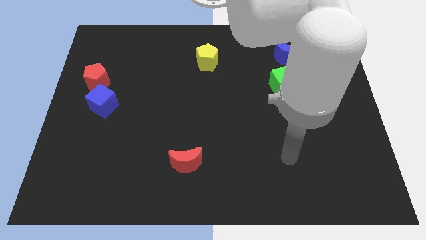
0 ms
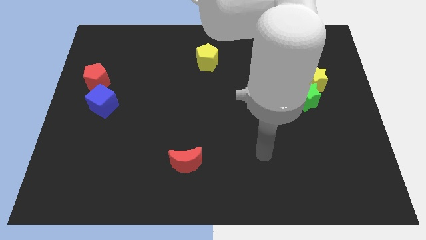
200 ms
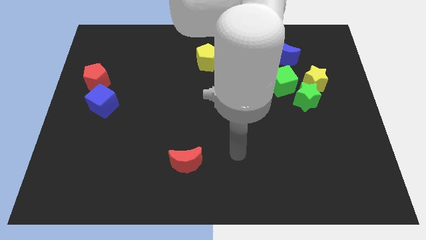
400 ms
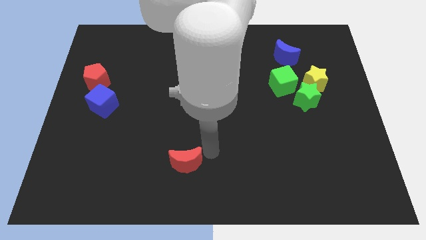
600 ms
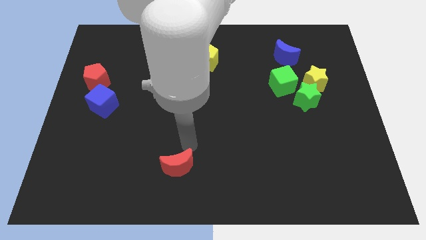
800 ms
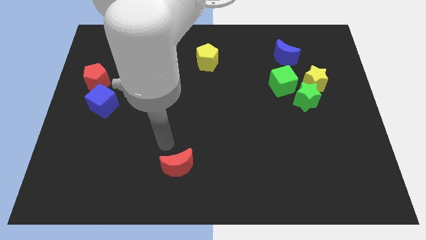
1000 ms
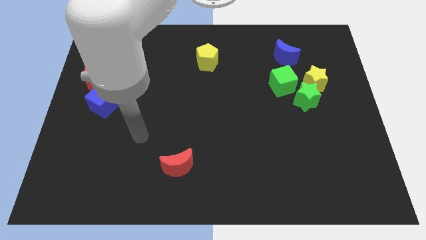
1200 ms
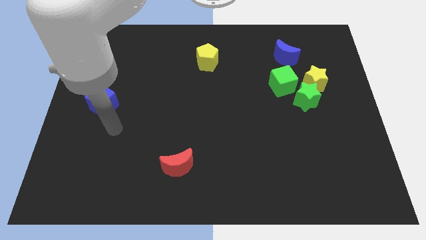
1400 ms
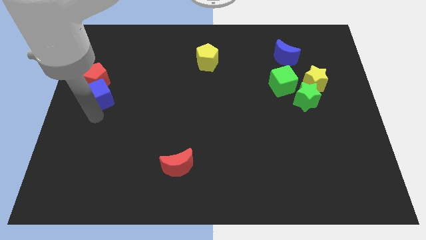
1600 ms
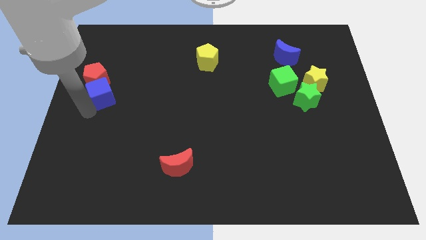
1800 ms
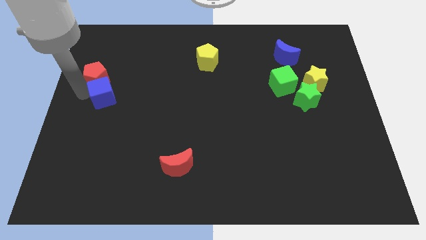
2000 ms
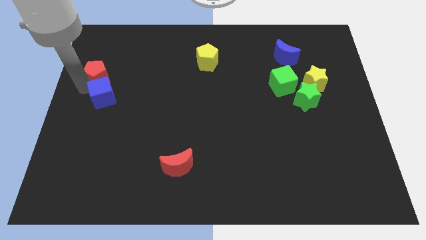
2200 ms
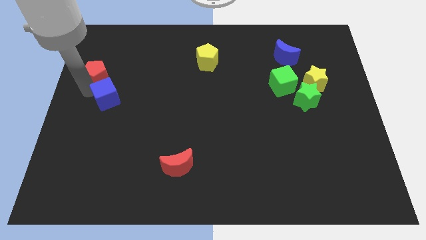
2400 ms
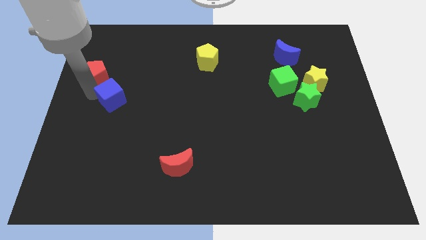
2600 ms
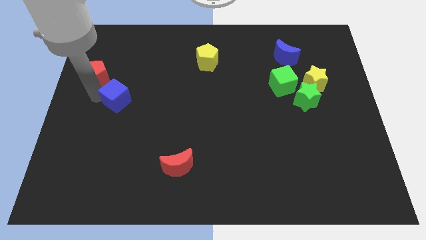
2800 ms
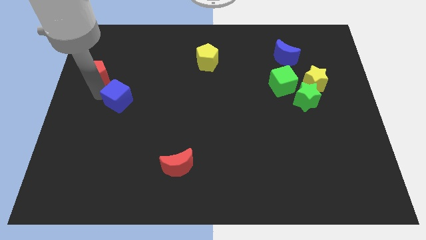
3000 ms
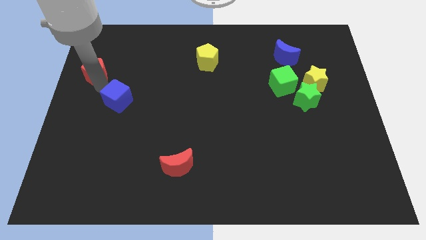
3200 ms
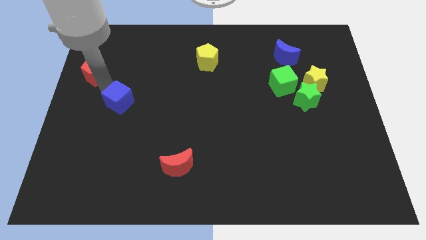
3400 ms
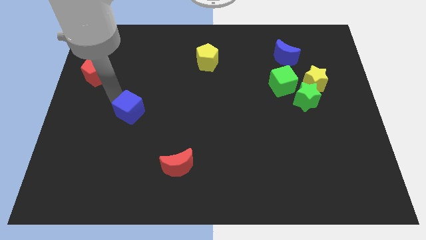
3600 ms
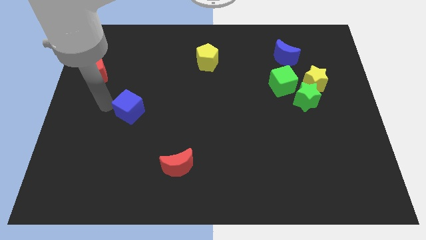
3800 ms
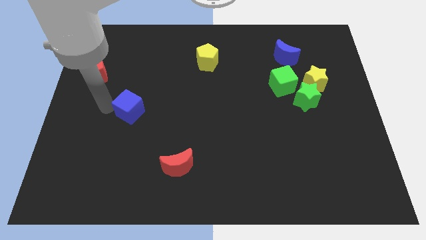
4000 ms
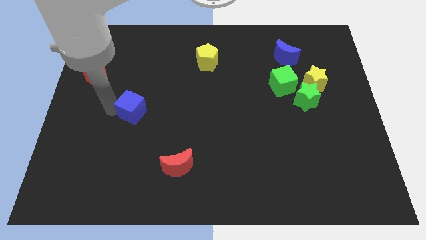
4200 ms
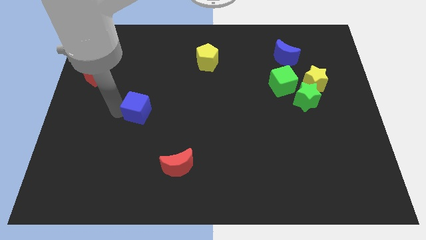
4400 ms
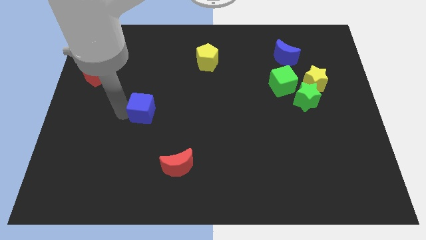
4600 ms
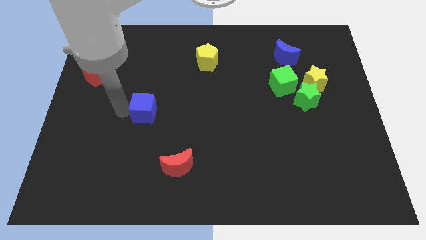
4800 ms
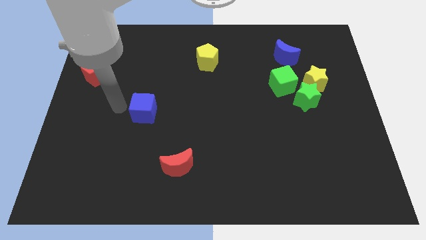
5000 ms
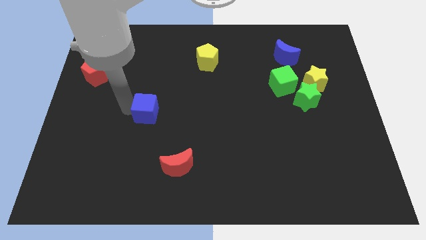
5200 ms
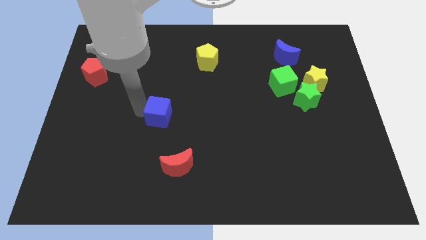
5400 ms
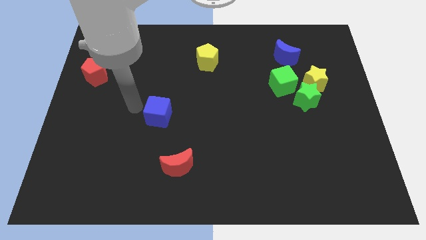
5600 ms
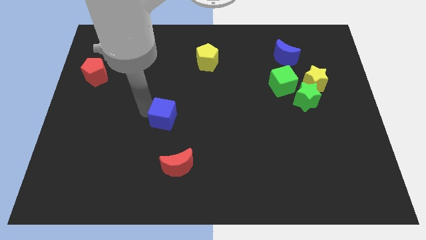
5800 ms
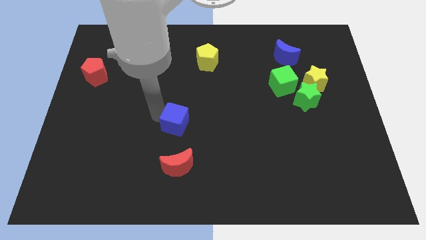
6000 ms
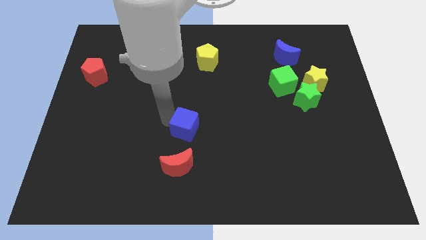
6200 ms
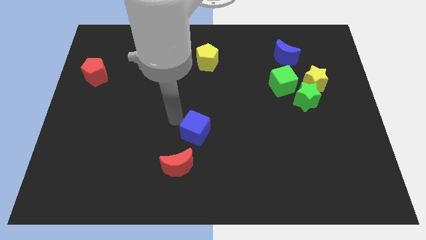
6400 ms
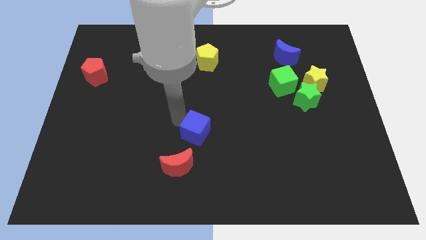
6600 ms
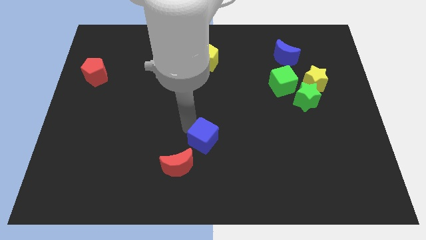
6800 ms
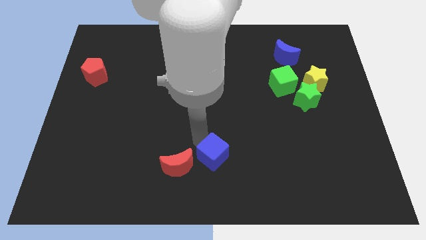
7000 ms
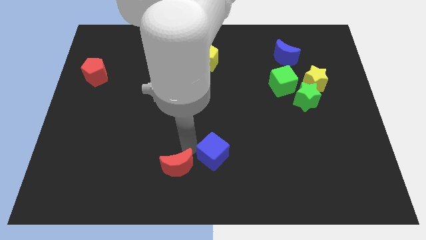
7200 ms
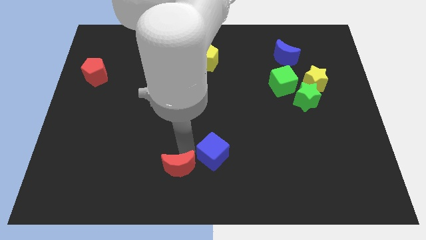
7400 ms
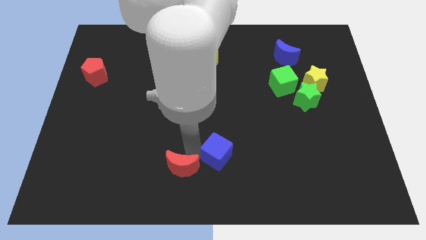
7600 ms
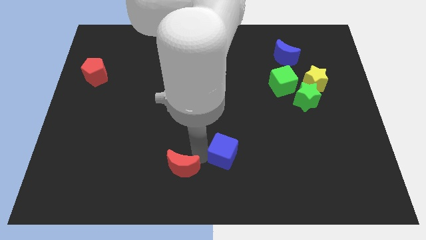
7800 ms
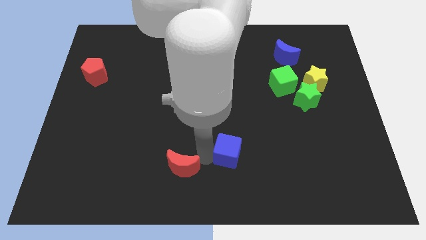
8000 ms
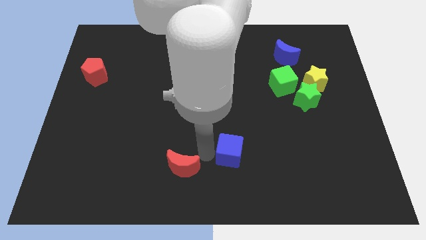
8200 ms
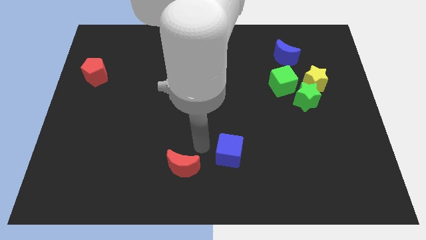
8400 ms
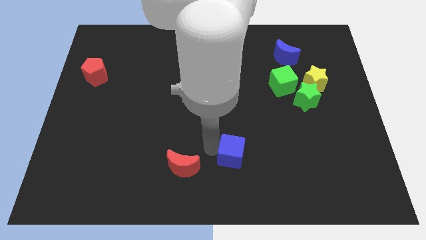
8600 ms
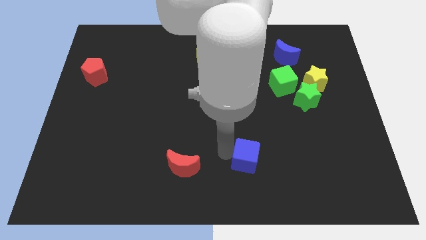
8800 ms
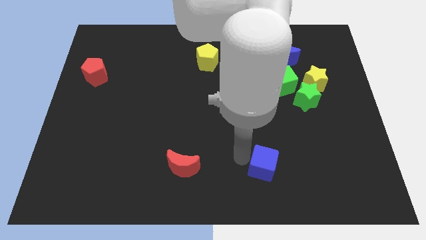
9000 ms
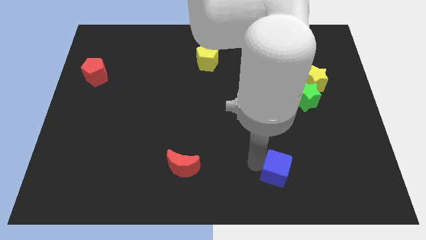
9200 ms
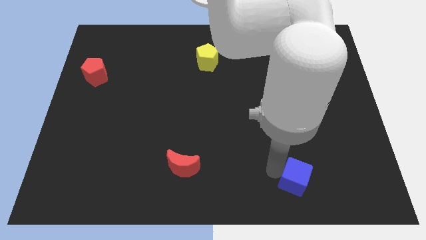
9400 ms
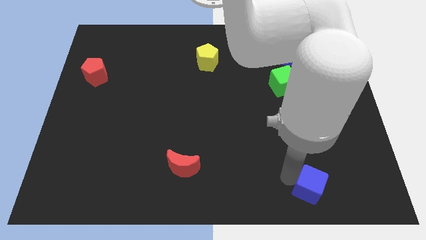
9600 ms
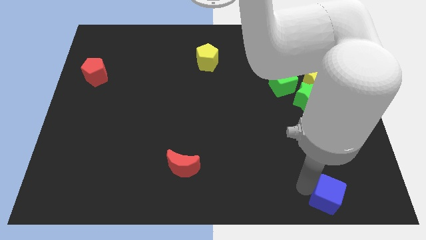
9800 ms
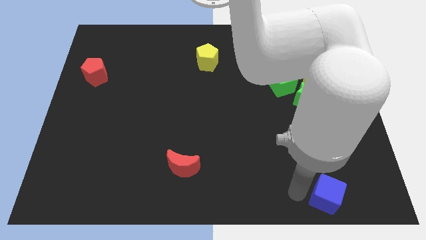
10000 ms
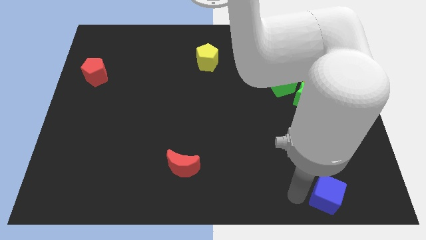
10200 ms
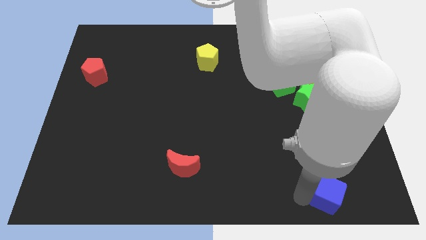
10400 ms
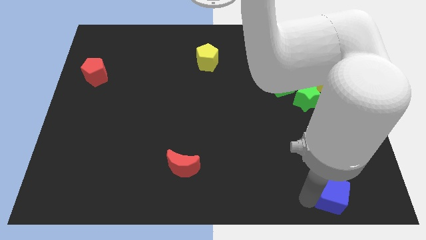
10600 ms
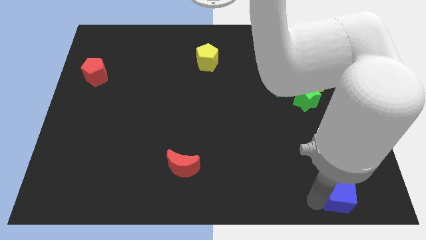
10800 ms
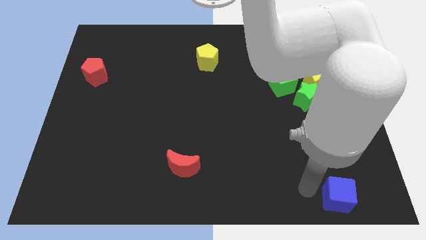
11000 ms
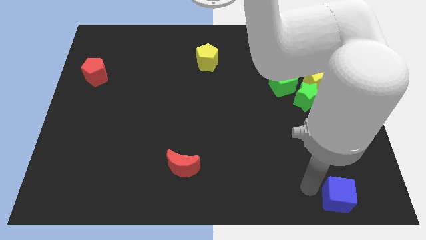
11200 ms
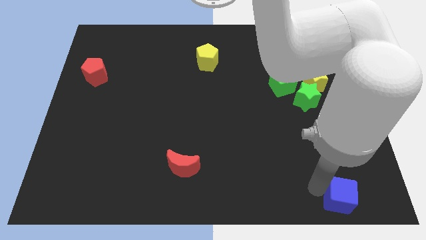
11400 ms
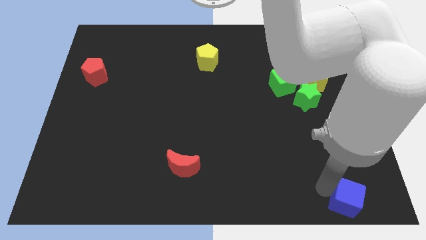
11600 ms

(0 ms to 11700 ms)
push the blue cube to the bottom right of the board

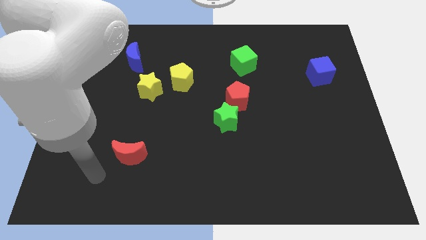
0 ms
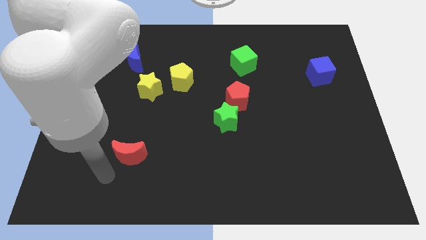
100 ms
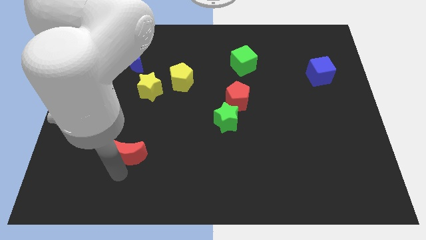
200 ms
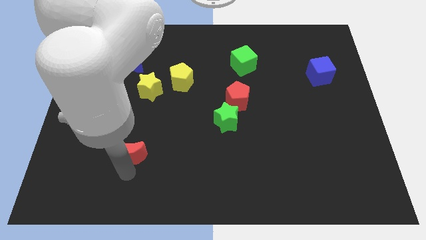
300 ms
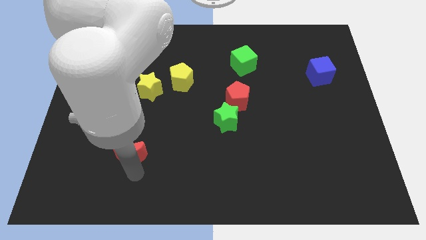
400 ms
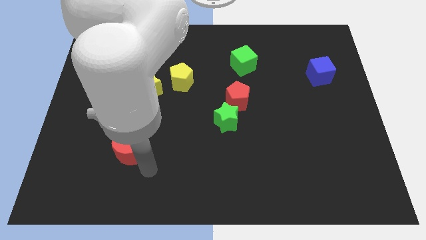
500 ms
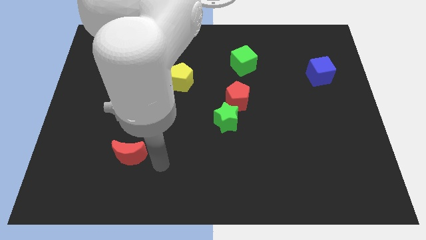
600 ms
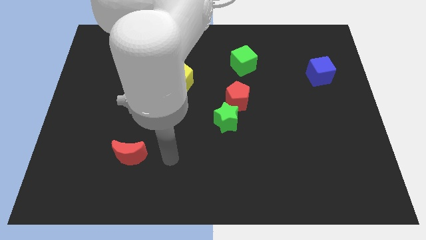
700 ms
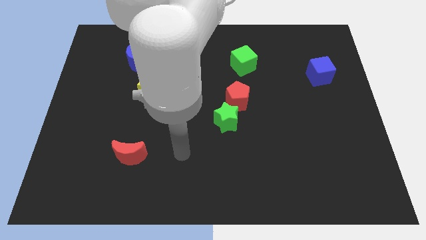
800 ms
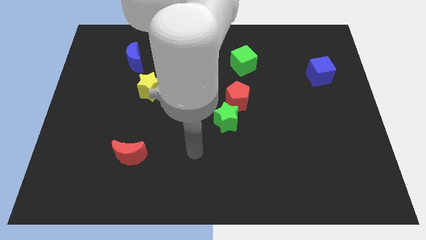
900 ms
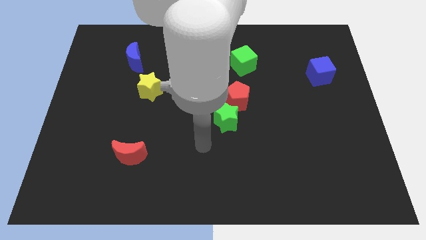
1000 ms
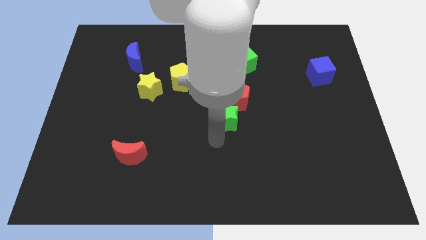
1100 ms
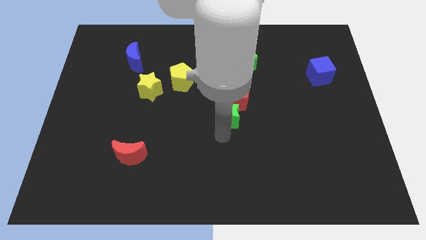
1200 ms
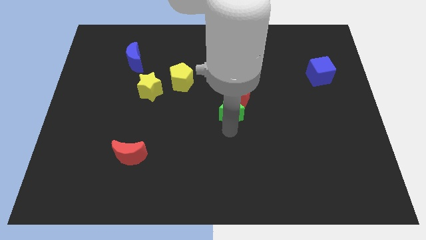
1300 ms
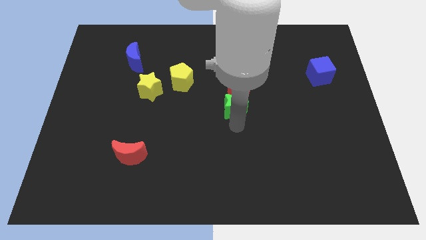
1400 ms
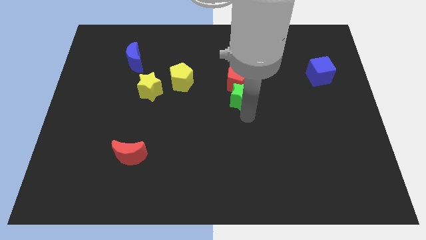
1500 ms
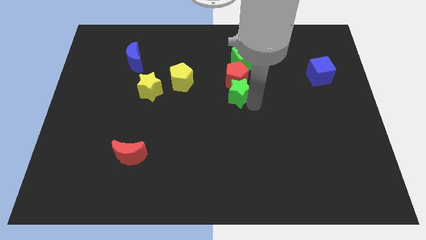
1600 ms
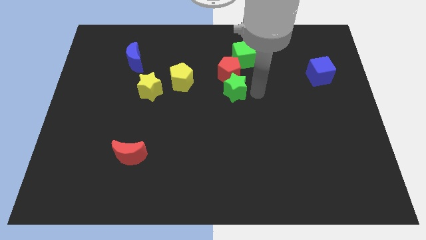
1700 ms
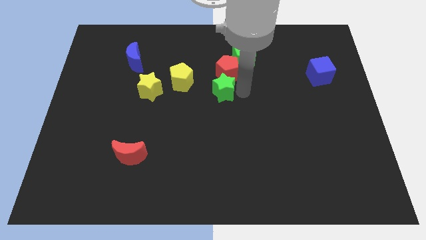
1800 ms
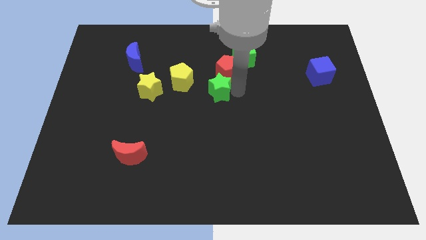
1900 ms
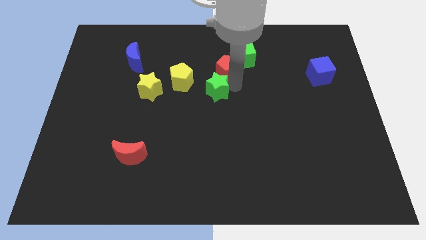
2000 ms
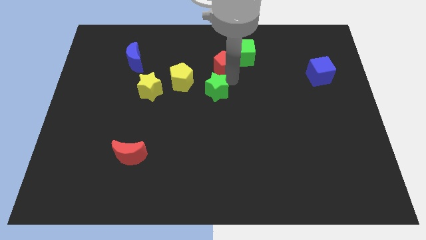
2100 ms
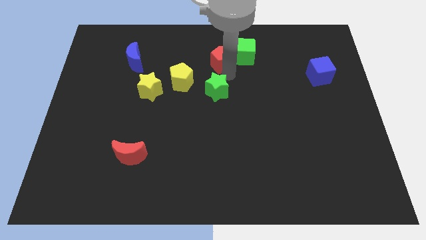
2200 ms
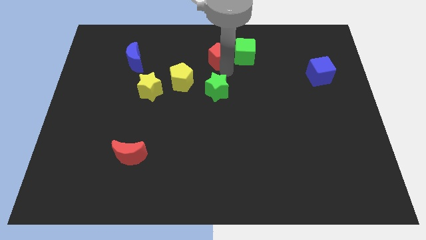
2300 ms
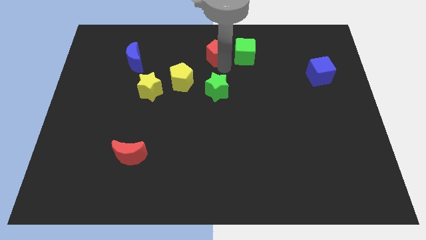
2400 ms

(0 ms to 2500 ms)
move the red pentagon to the towards your base
